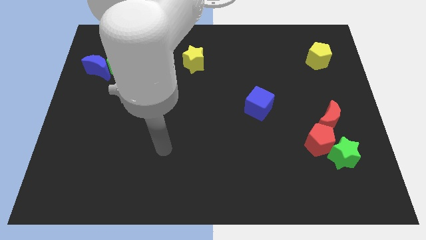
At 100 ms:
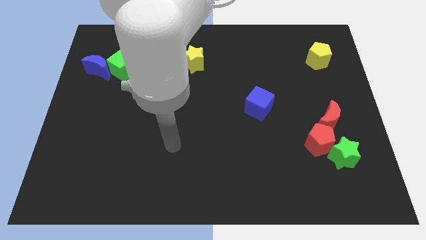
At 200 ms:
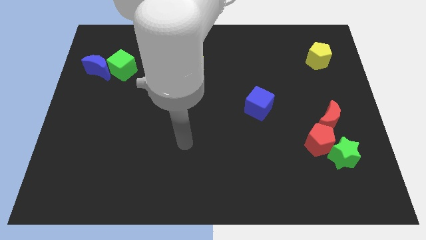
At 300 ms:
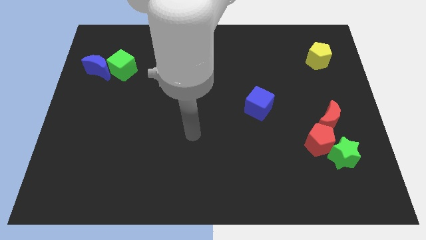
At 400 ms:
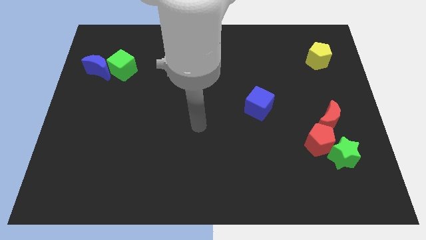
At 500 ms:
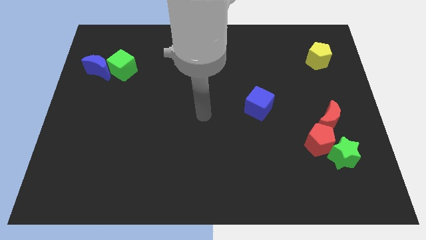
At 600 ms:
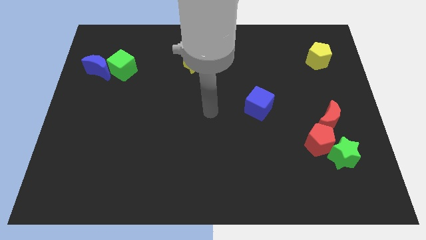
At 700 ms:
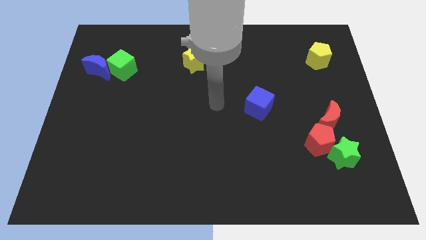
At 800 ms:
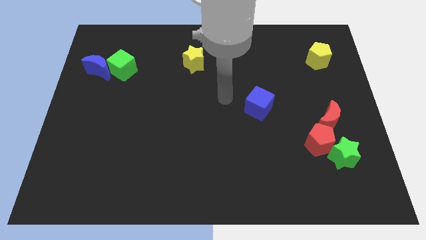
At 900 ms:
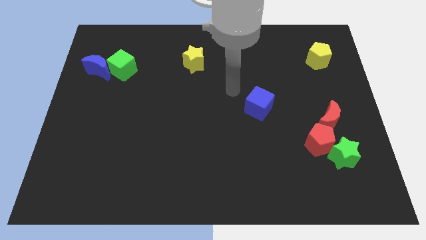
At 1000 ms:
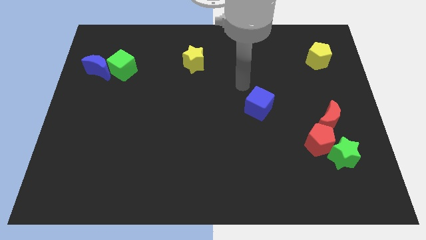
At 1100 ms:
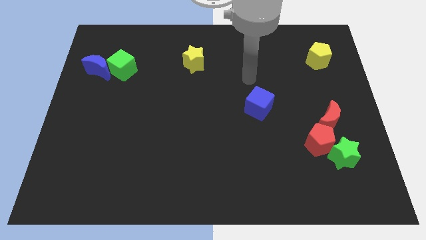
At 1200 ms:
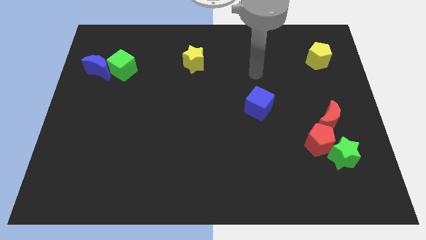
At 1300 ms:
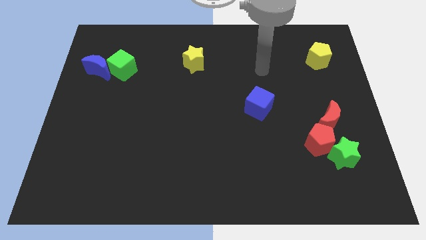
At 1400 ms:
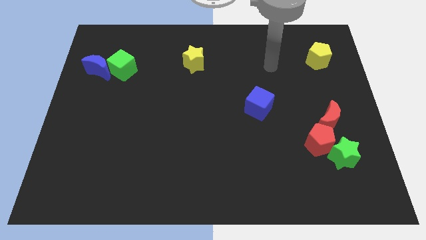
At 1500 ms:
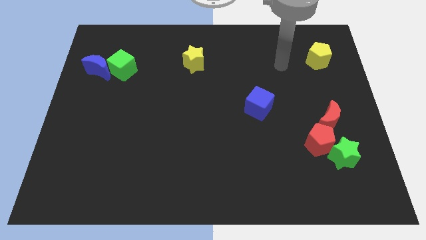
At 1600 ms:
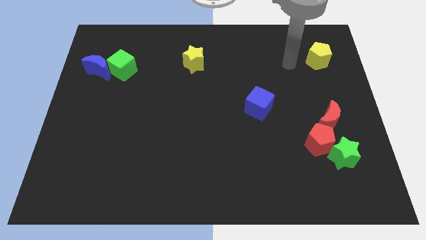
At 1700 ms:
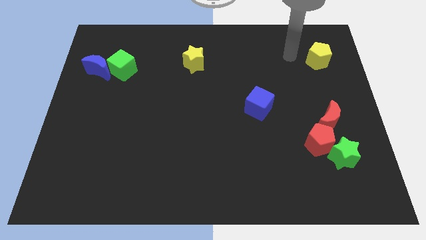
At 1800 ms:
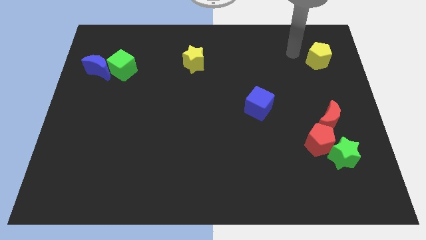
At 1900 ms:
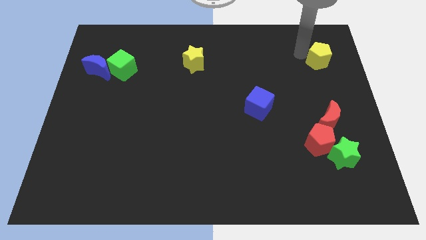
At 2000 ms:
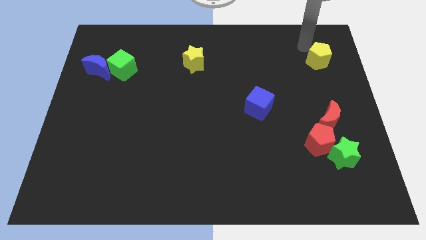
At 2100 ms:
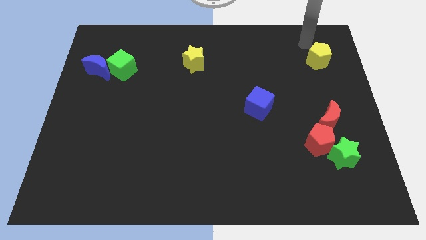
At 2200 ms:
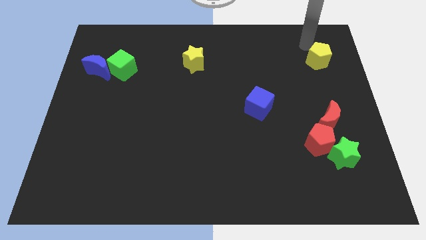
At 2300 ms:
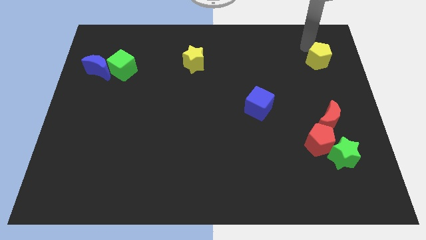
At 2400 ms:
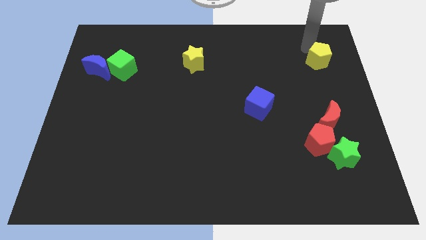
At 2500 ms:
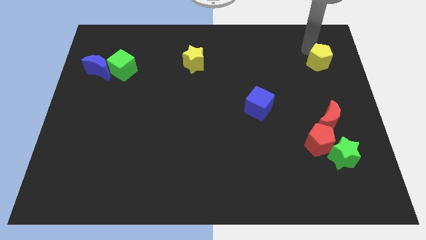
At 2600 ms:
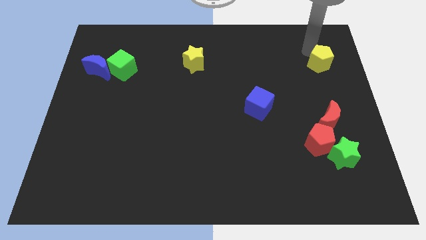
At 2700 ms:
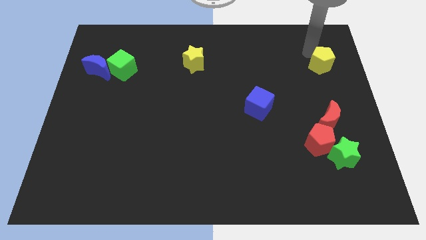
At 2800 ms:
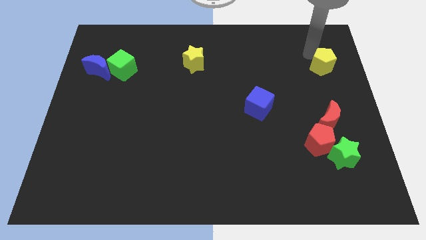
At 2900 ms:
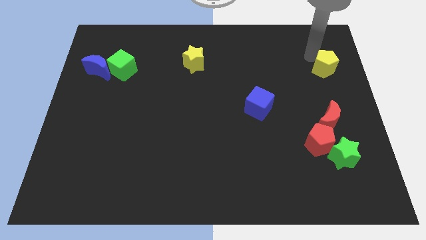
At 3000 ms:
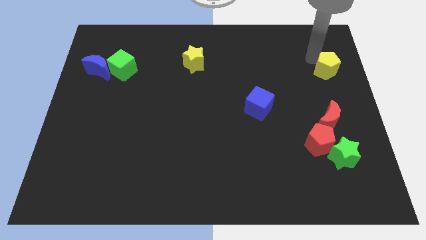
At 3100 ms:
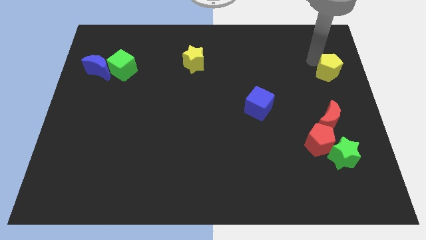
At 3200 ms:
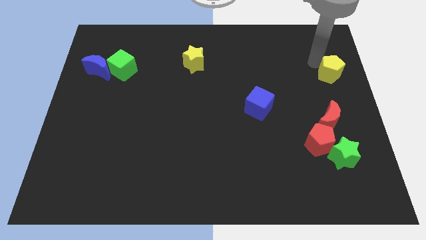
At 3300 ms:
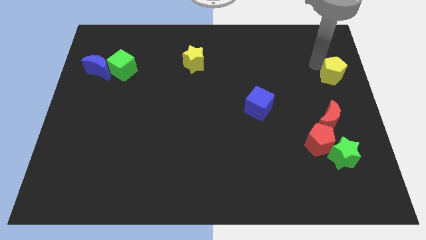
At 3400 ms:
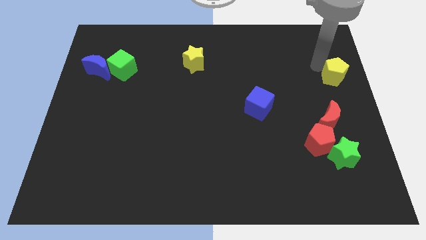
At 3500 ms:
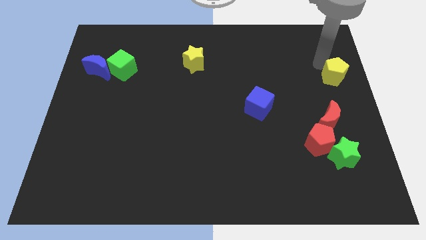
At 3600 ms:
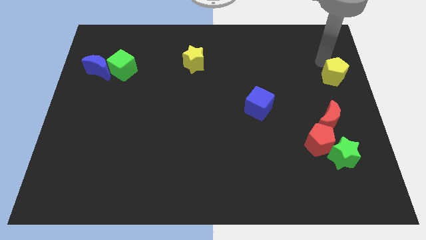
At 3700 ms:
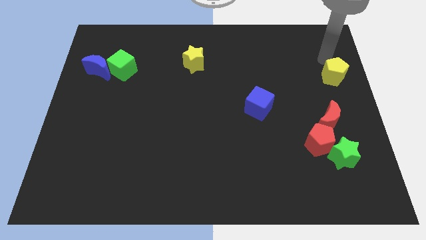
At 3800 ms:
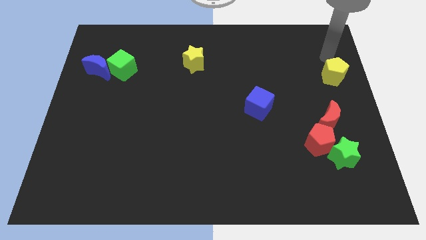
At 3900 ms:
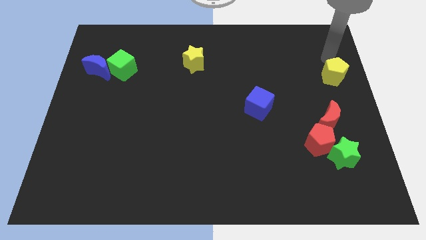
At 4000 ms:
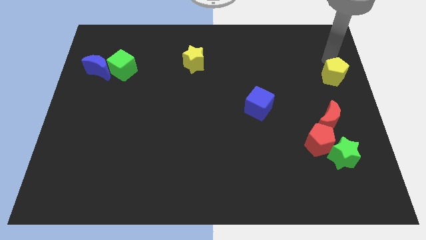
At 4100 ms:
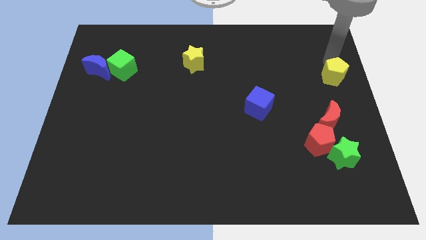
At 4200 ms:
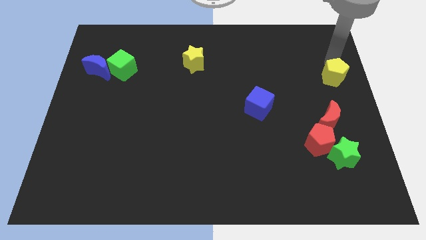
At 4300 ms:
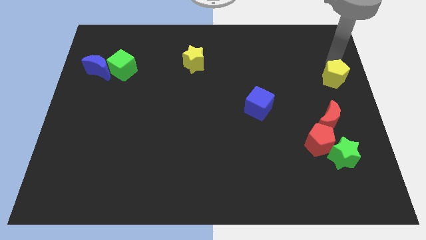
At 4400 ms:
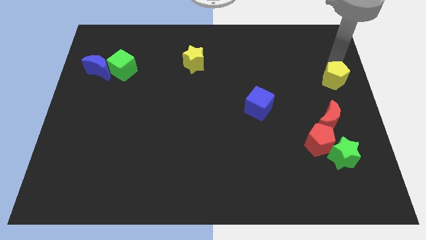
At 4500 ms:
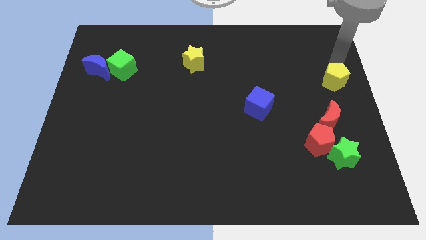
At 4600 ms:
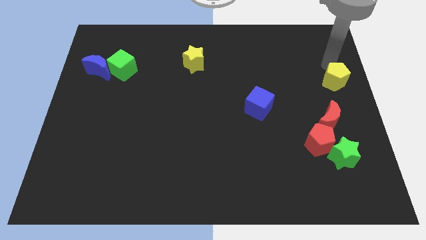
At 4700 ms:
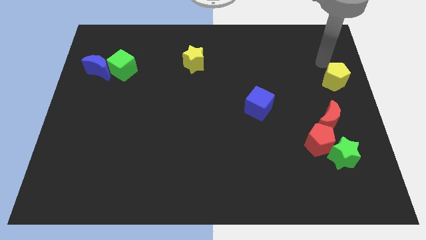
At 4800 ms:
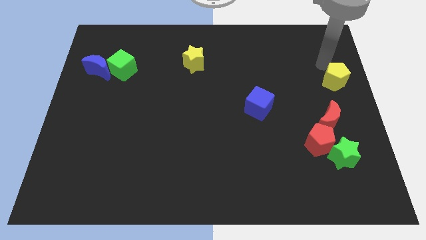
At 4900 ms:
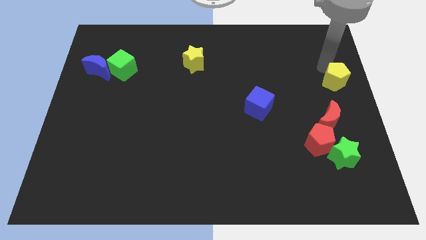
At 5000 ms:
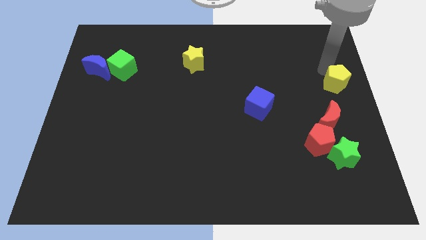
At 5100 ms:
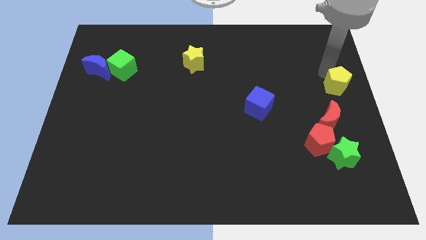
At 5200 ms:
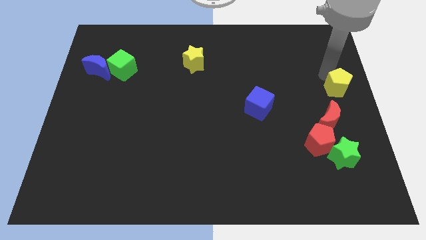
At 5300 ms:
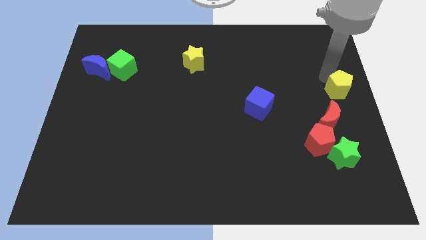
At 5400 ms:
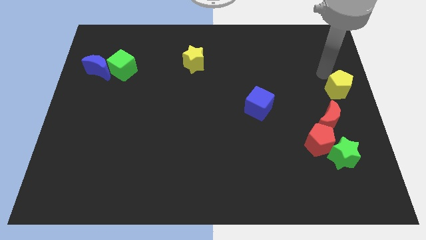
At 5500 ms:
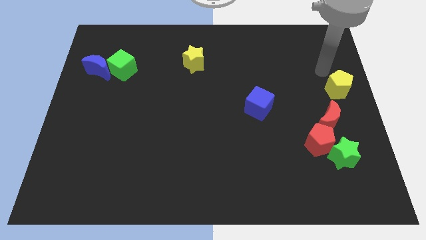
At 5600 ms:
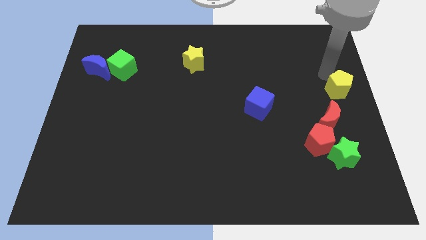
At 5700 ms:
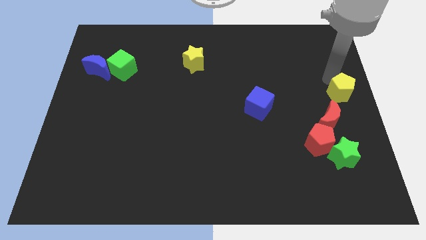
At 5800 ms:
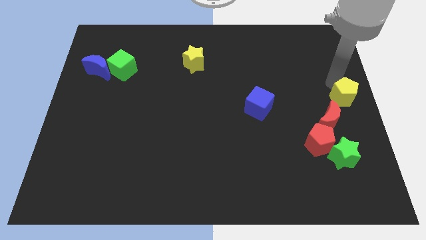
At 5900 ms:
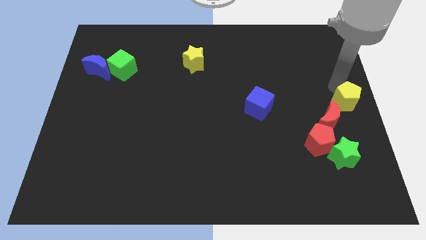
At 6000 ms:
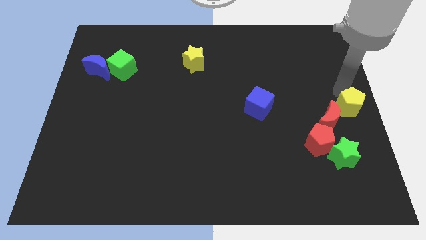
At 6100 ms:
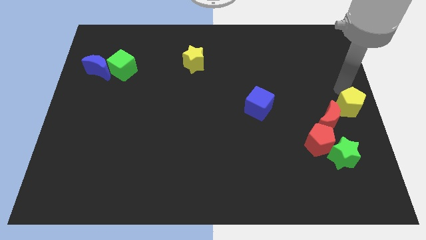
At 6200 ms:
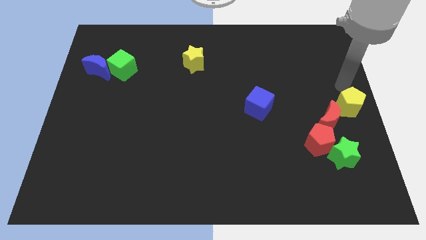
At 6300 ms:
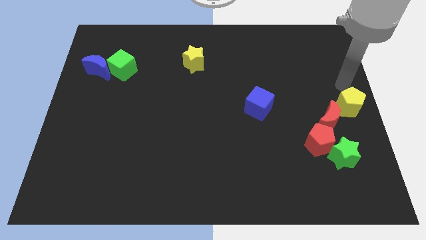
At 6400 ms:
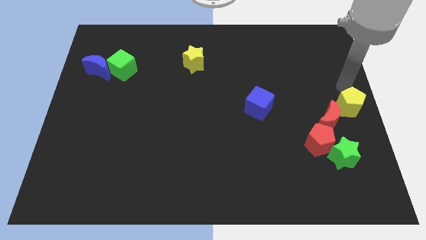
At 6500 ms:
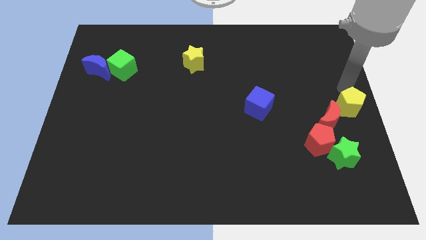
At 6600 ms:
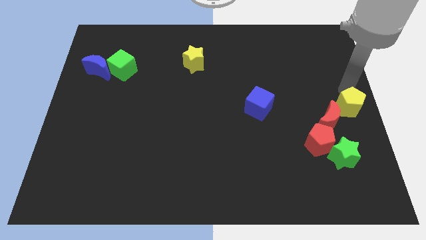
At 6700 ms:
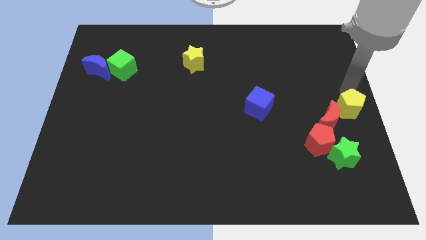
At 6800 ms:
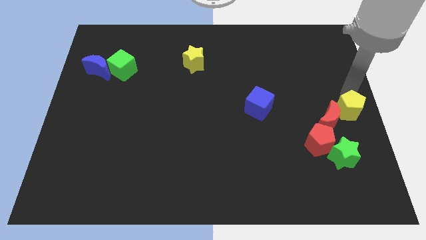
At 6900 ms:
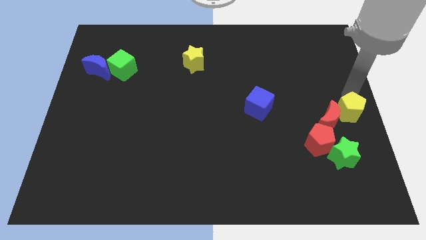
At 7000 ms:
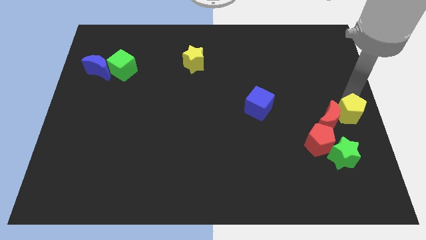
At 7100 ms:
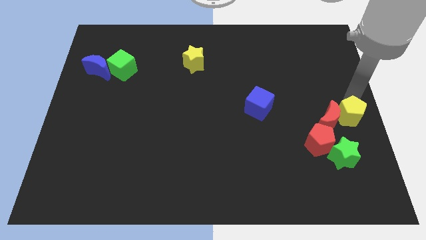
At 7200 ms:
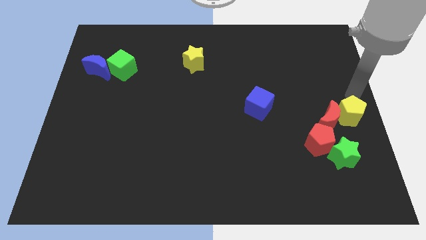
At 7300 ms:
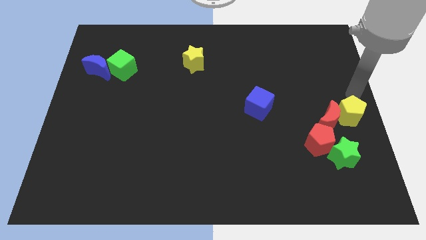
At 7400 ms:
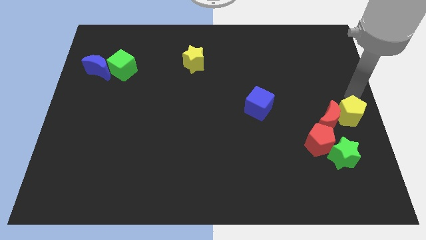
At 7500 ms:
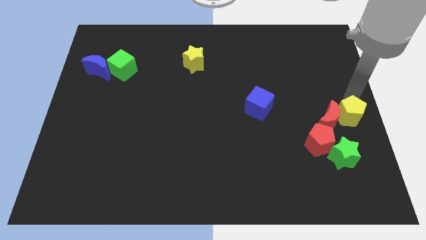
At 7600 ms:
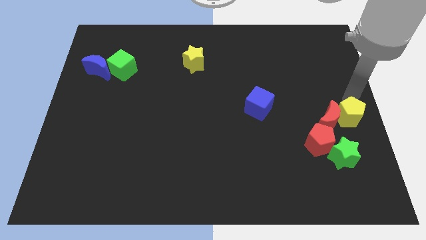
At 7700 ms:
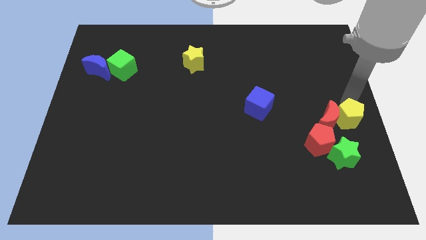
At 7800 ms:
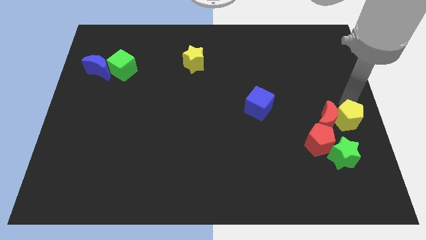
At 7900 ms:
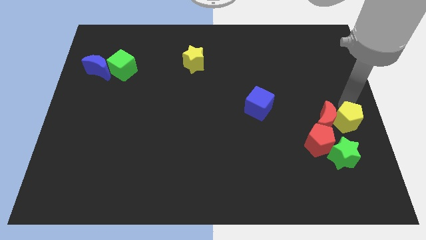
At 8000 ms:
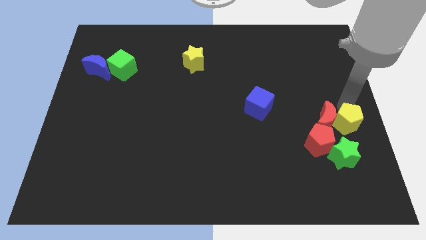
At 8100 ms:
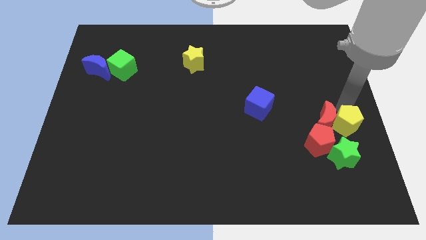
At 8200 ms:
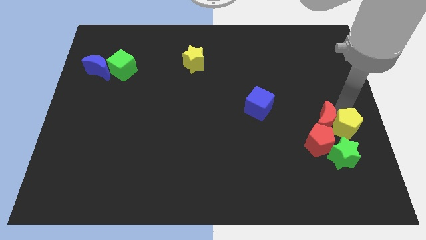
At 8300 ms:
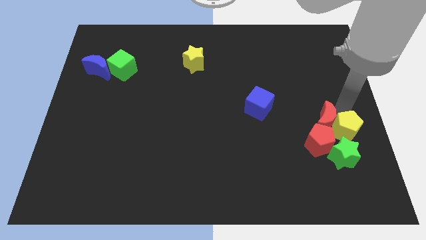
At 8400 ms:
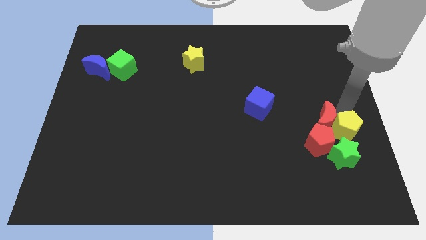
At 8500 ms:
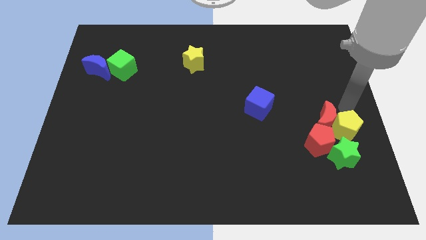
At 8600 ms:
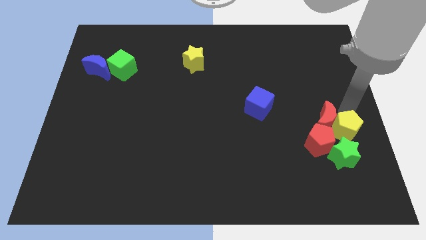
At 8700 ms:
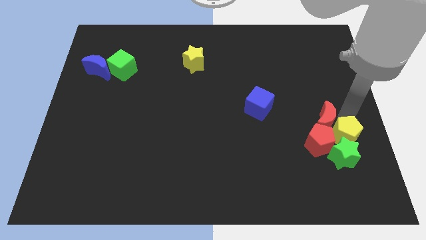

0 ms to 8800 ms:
move the yellow pentagon close to the green star
